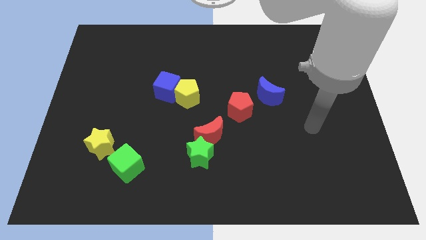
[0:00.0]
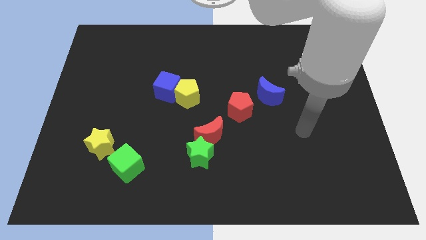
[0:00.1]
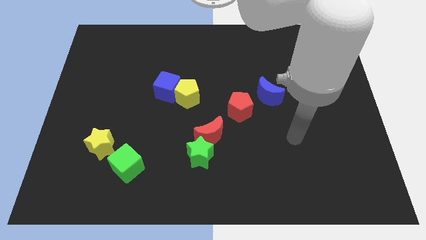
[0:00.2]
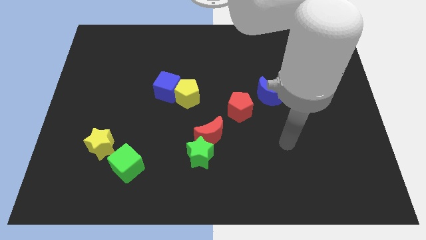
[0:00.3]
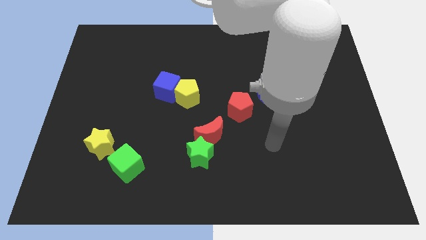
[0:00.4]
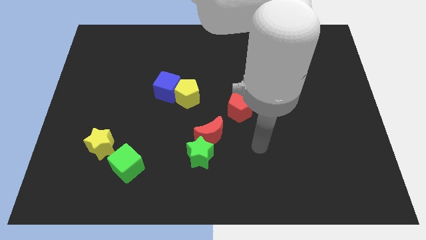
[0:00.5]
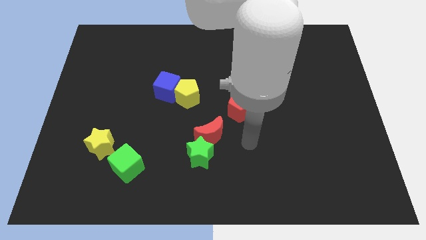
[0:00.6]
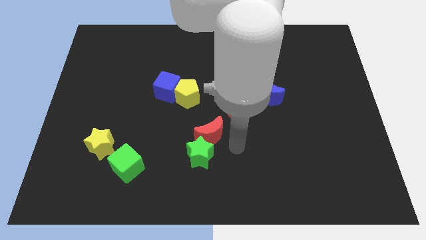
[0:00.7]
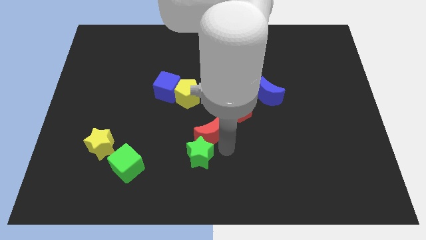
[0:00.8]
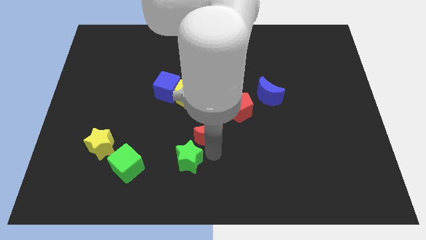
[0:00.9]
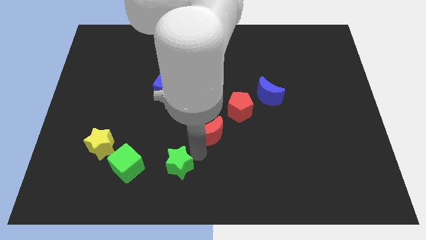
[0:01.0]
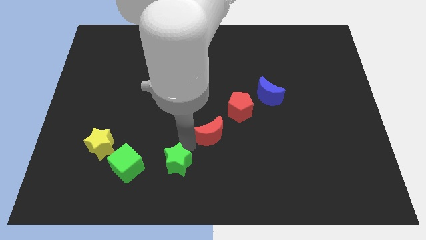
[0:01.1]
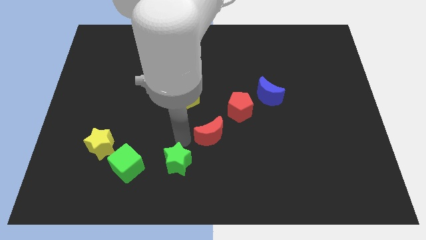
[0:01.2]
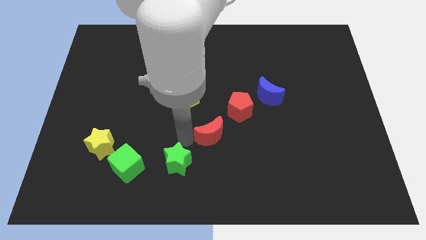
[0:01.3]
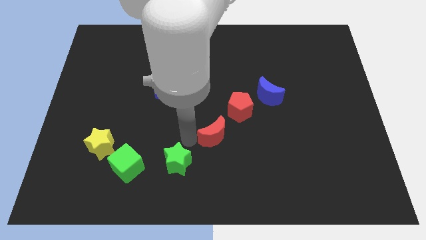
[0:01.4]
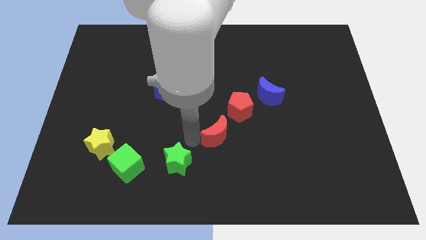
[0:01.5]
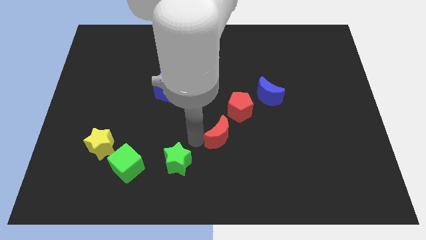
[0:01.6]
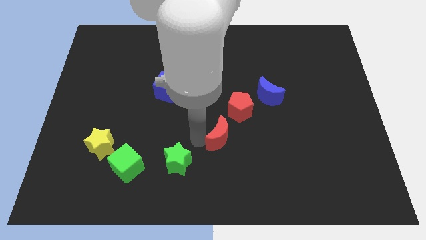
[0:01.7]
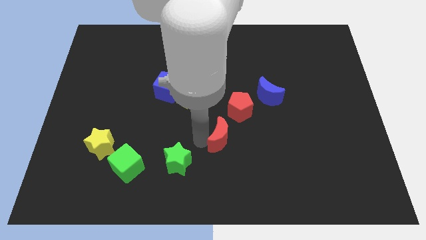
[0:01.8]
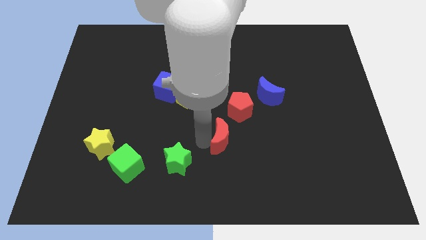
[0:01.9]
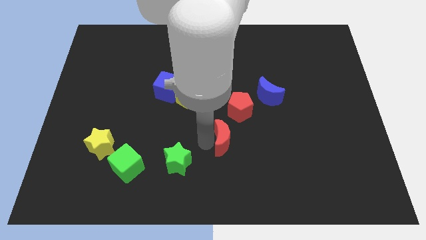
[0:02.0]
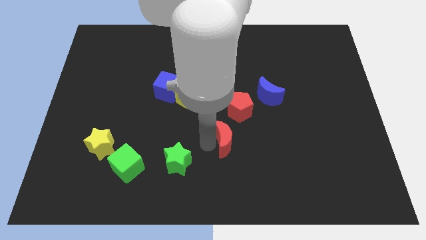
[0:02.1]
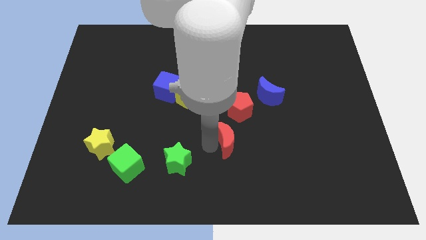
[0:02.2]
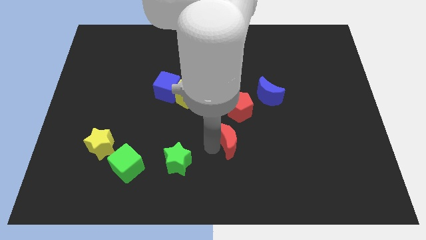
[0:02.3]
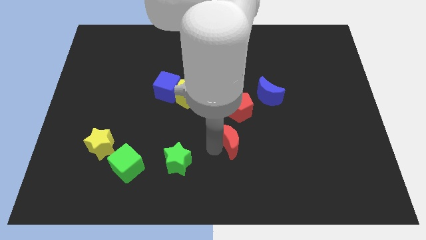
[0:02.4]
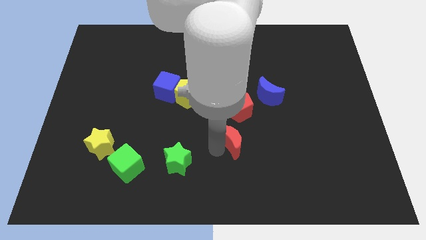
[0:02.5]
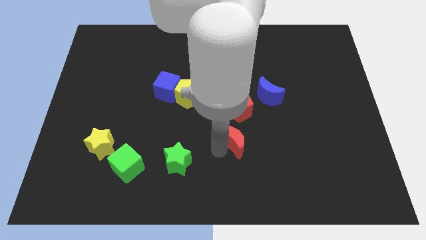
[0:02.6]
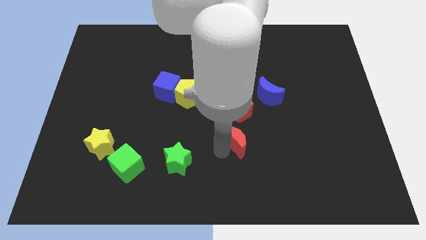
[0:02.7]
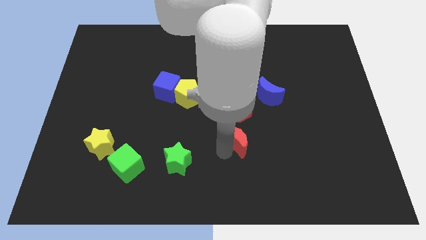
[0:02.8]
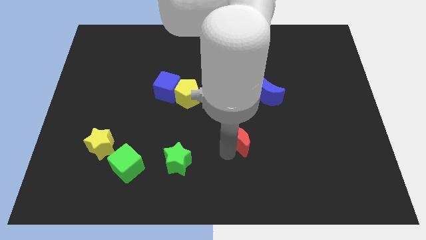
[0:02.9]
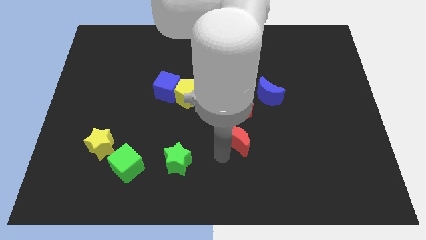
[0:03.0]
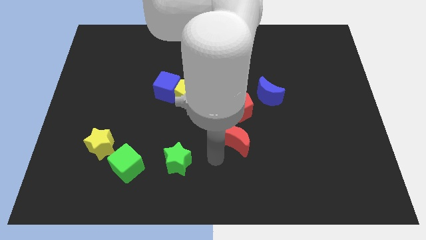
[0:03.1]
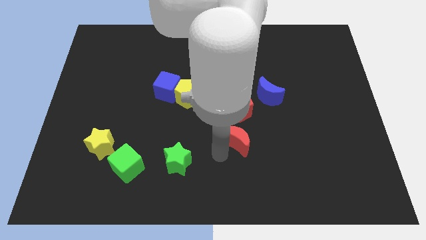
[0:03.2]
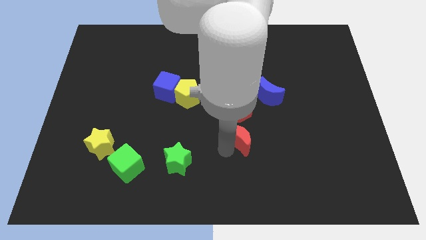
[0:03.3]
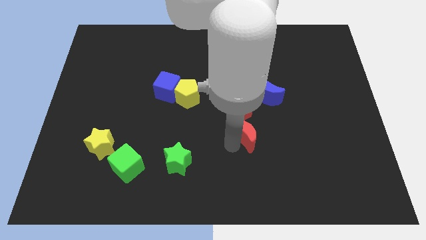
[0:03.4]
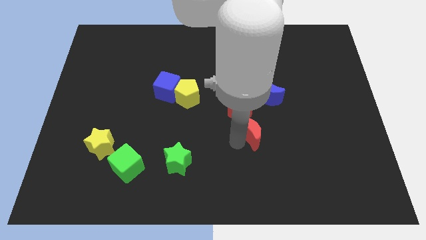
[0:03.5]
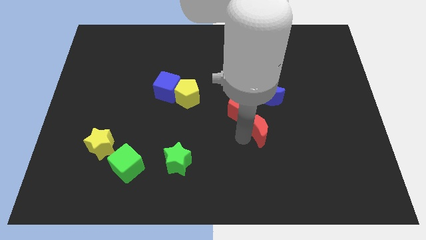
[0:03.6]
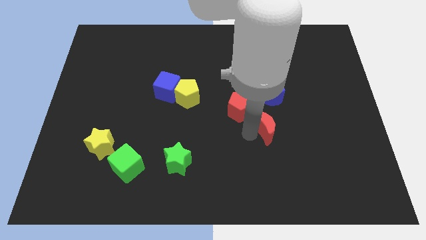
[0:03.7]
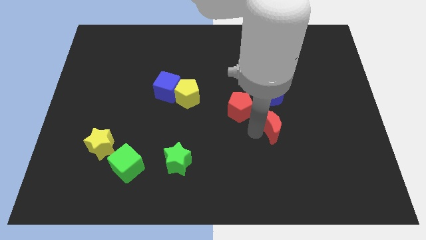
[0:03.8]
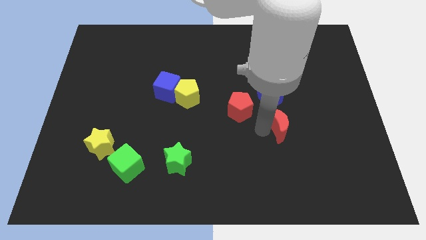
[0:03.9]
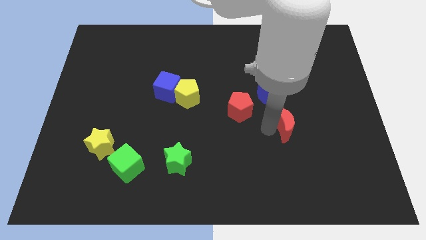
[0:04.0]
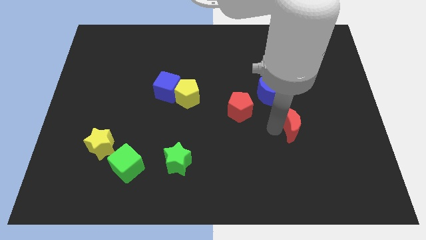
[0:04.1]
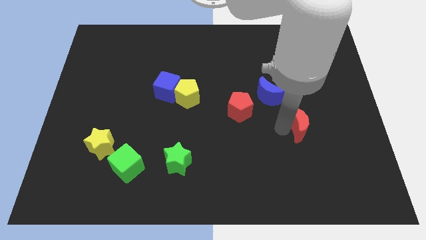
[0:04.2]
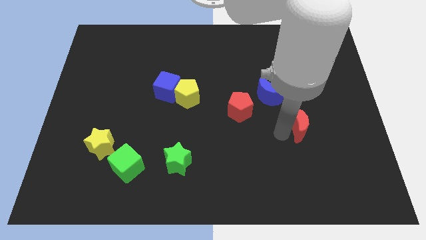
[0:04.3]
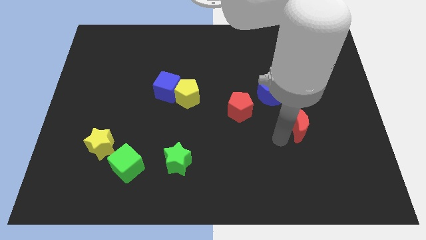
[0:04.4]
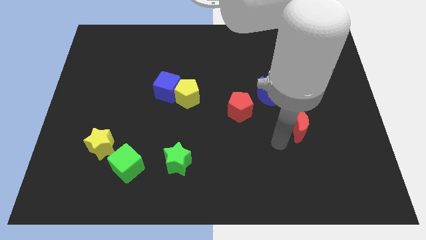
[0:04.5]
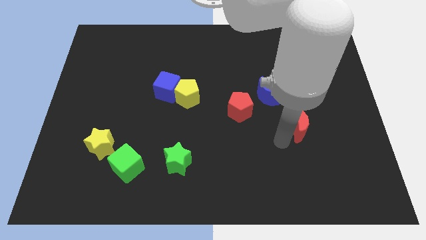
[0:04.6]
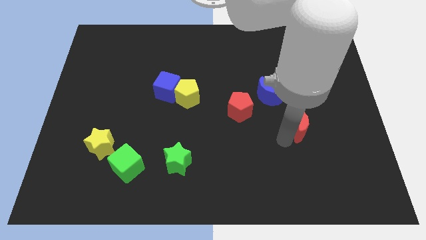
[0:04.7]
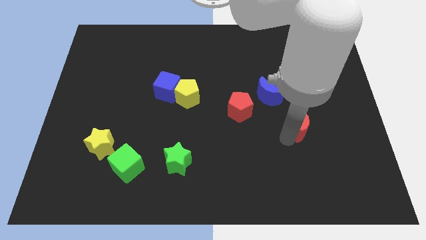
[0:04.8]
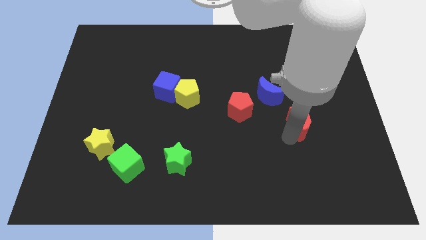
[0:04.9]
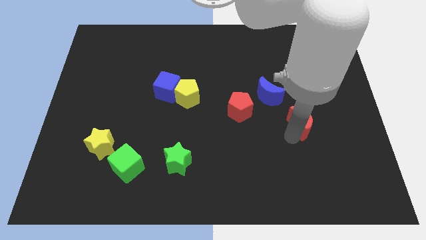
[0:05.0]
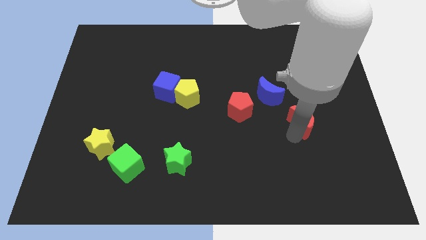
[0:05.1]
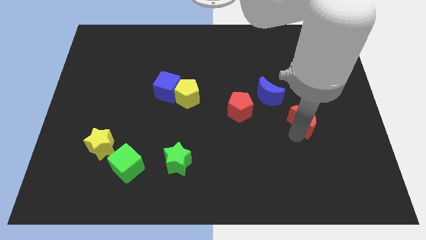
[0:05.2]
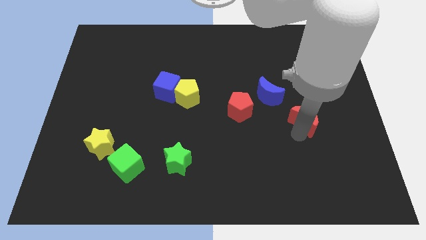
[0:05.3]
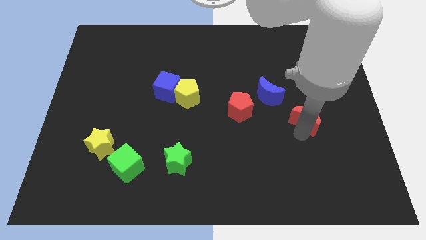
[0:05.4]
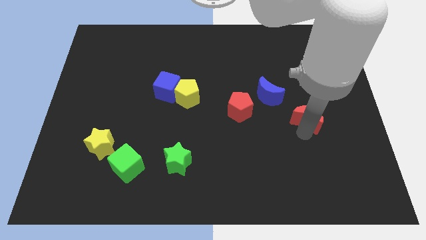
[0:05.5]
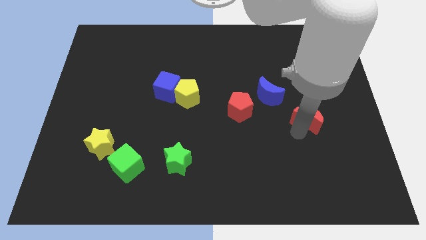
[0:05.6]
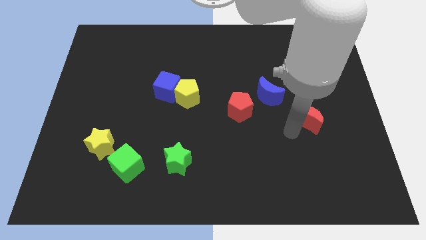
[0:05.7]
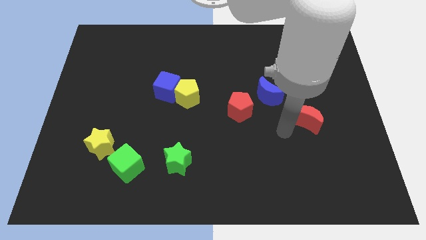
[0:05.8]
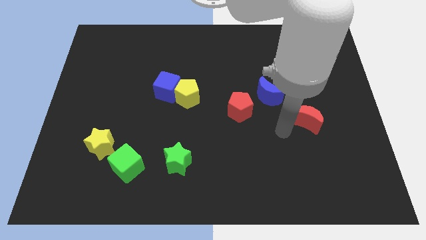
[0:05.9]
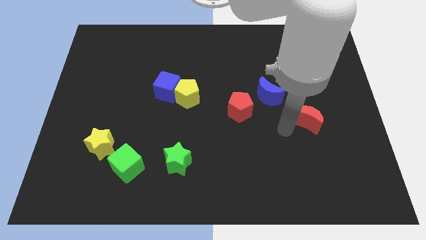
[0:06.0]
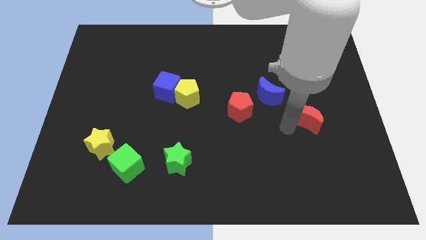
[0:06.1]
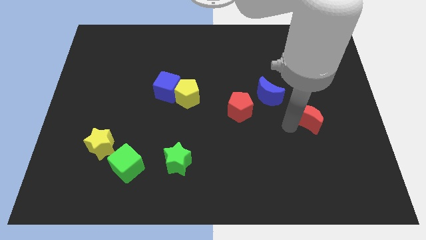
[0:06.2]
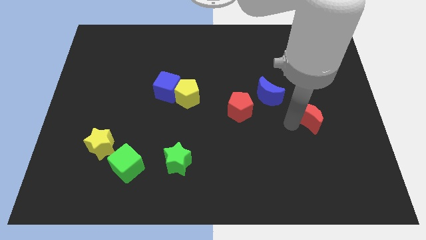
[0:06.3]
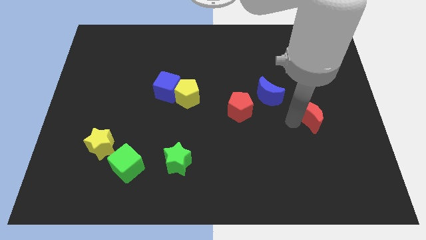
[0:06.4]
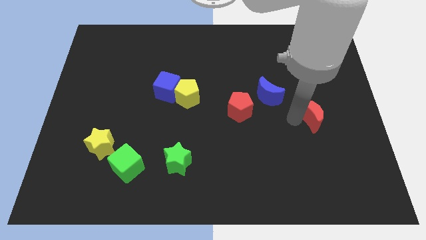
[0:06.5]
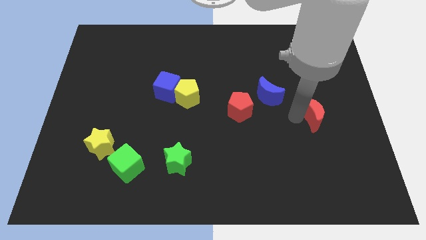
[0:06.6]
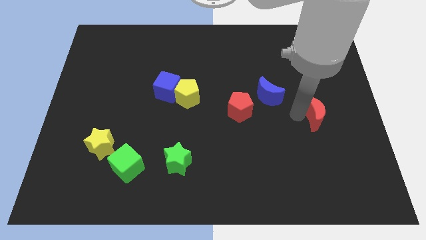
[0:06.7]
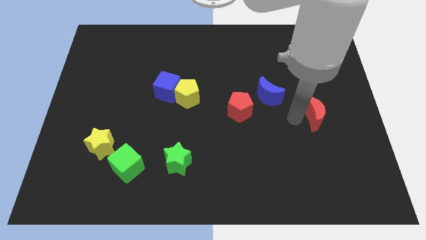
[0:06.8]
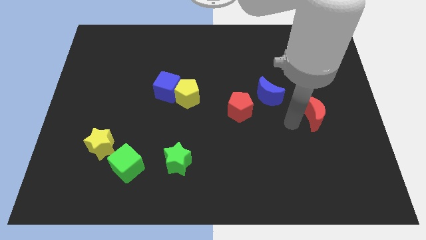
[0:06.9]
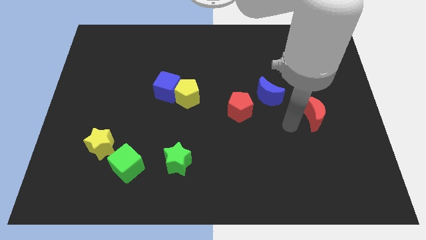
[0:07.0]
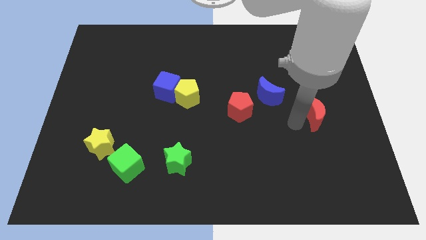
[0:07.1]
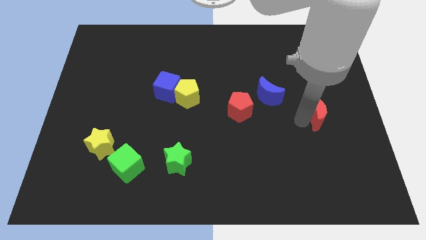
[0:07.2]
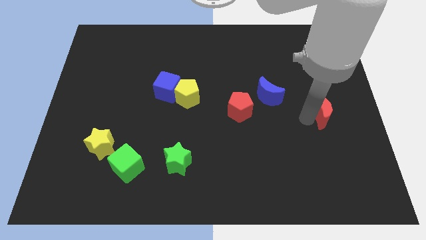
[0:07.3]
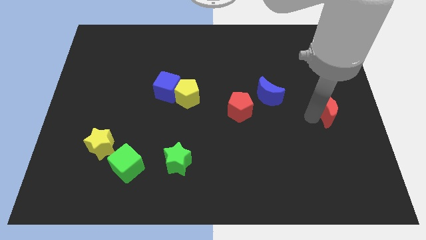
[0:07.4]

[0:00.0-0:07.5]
push the red moon to the right side of the board
